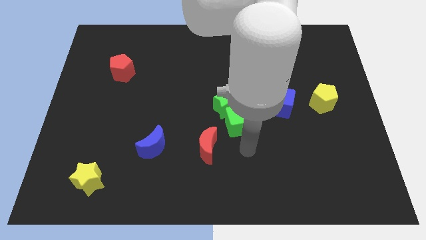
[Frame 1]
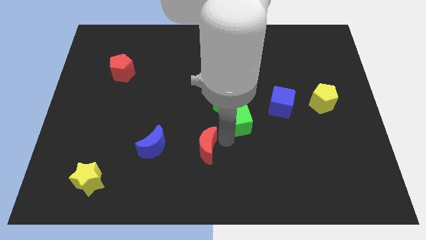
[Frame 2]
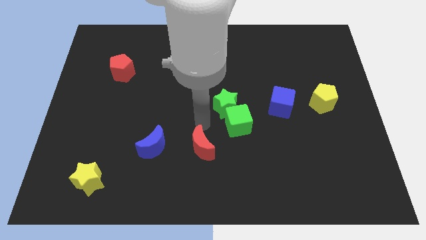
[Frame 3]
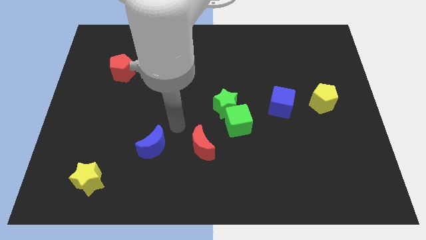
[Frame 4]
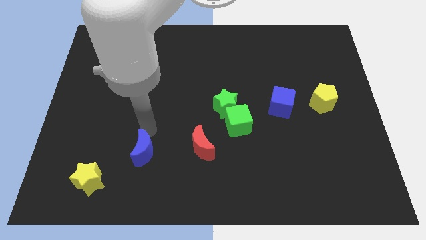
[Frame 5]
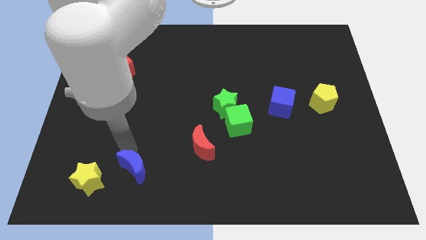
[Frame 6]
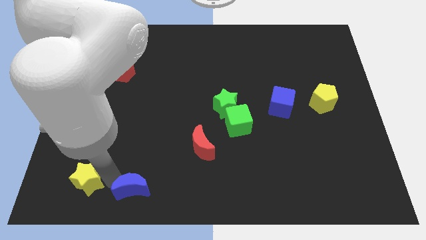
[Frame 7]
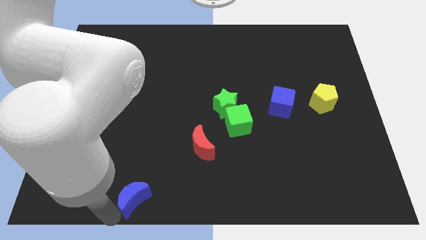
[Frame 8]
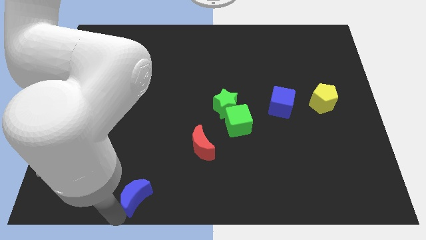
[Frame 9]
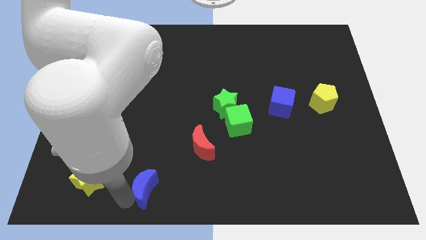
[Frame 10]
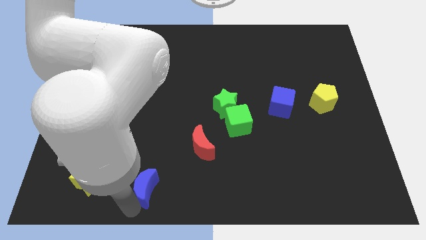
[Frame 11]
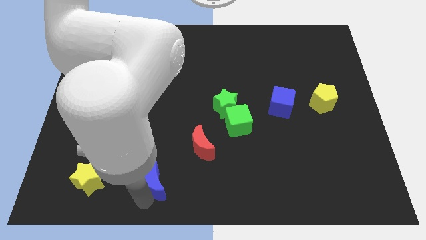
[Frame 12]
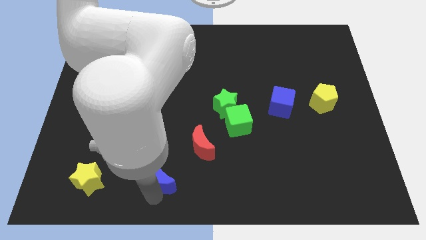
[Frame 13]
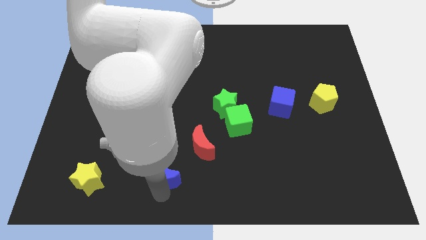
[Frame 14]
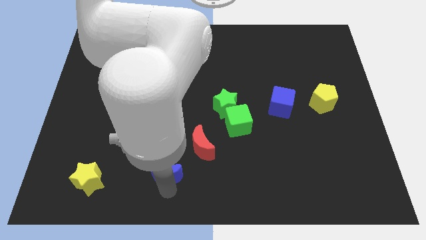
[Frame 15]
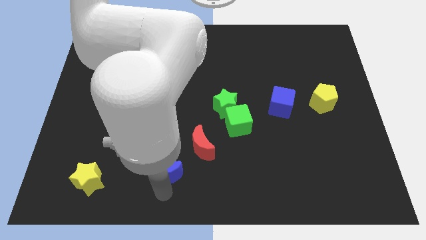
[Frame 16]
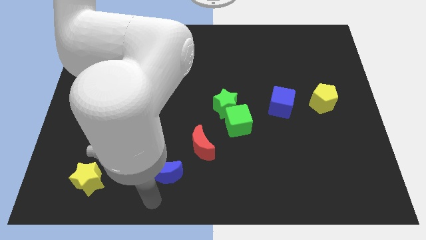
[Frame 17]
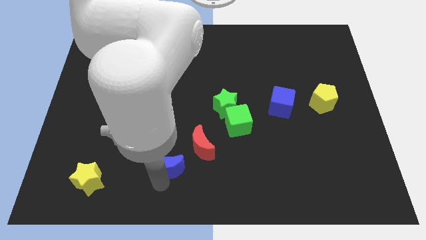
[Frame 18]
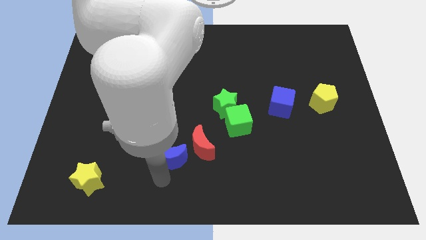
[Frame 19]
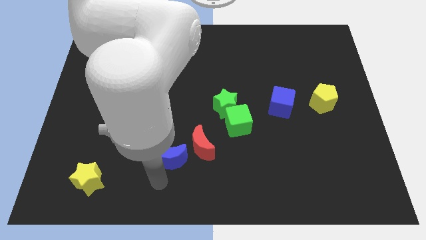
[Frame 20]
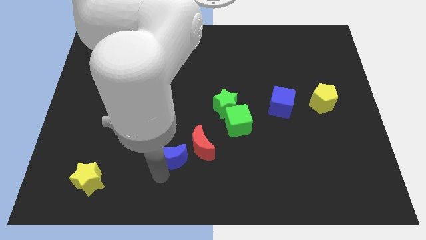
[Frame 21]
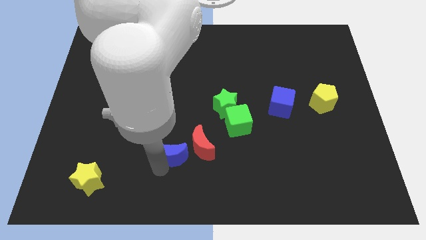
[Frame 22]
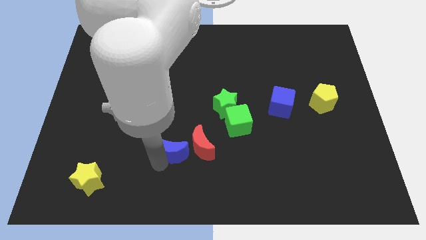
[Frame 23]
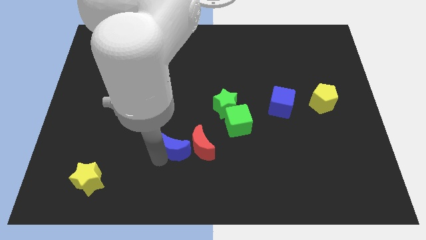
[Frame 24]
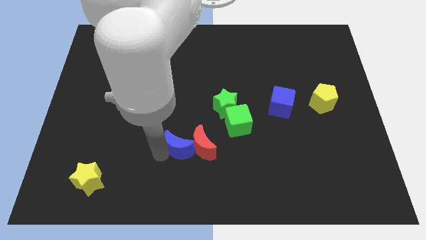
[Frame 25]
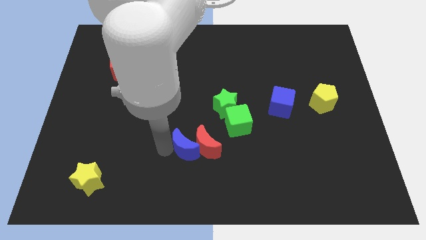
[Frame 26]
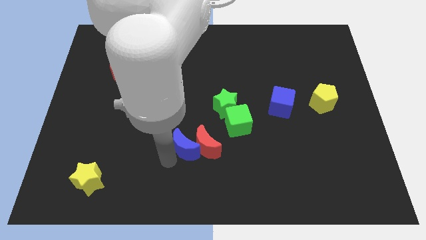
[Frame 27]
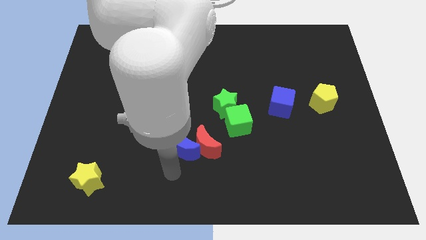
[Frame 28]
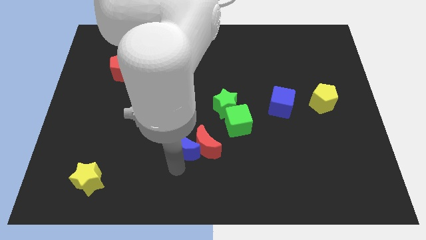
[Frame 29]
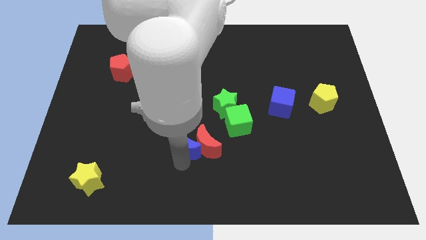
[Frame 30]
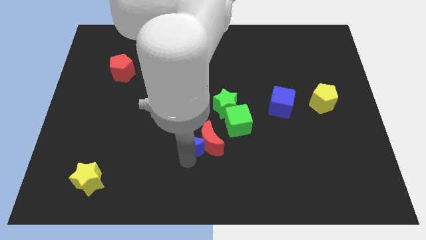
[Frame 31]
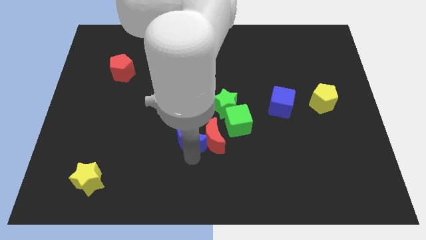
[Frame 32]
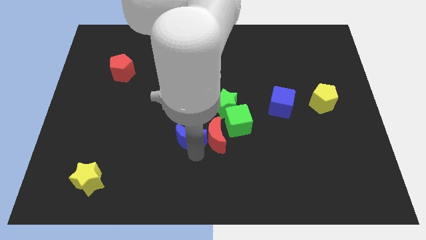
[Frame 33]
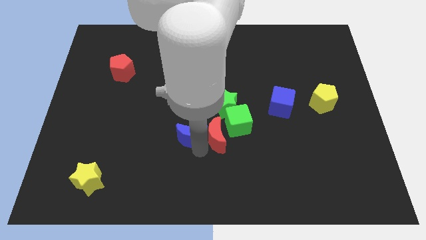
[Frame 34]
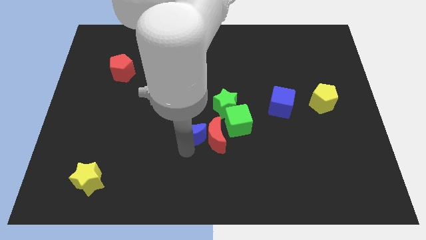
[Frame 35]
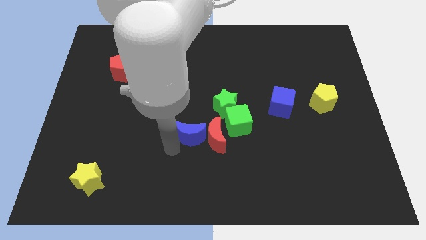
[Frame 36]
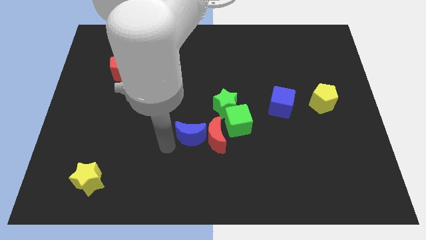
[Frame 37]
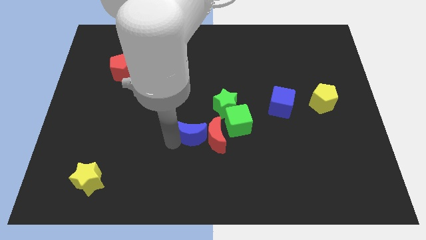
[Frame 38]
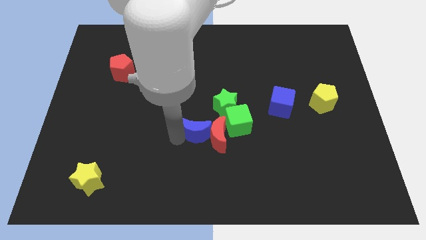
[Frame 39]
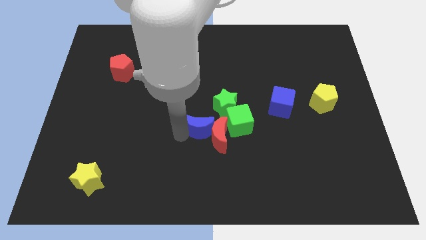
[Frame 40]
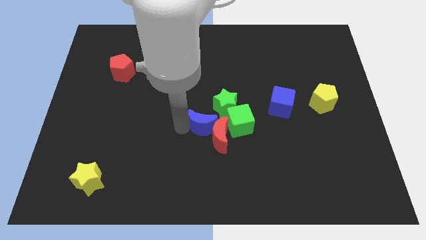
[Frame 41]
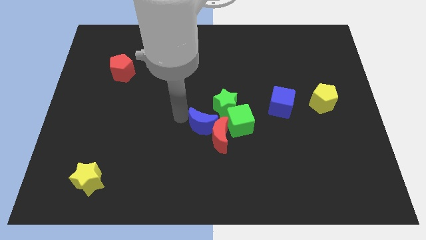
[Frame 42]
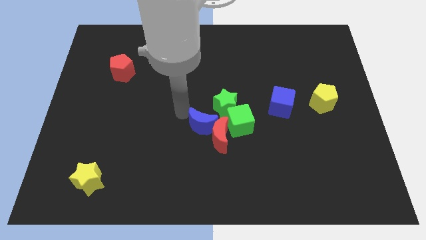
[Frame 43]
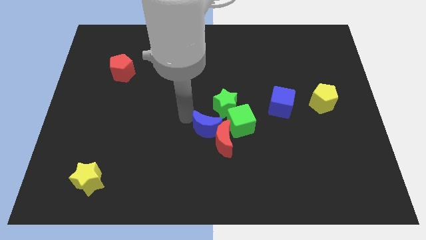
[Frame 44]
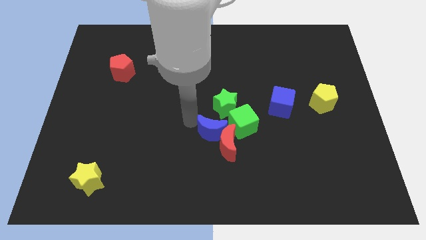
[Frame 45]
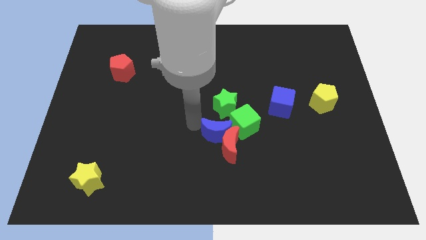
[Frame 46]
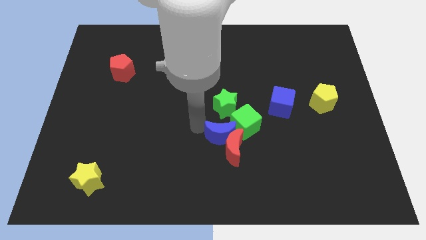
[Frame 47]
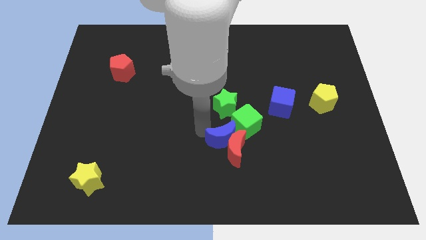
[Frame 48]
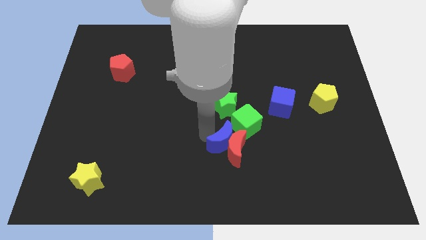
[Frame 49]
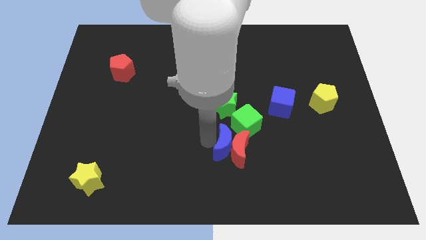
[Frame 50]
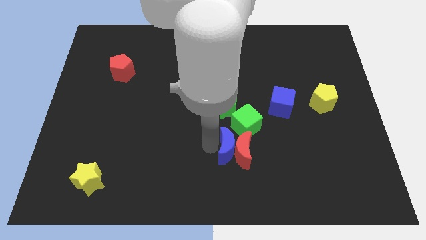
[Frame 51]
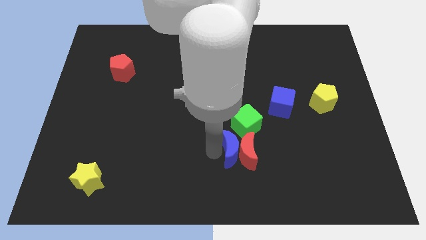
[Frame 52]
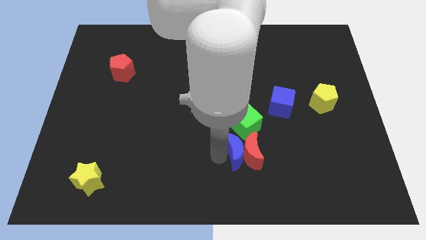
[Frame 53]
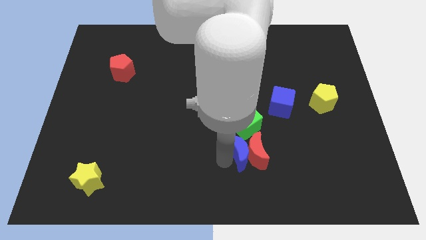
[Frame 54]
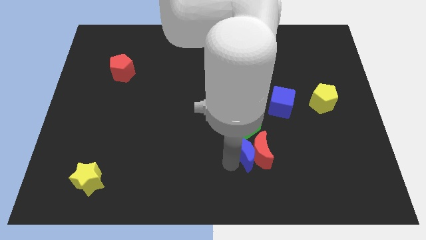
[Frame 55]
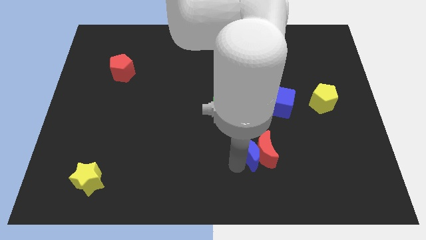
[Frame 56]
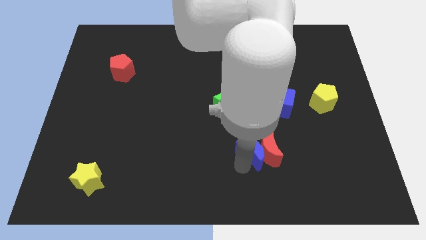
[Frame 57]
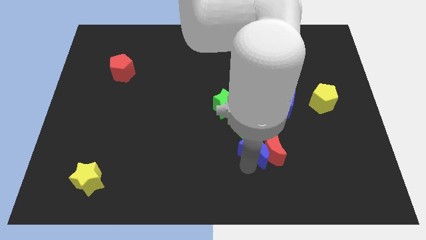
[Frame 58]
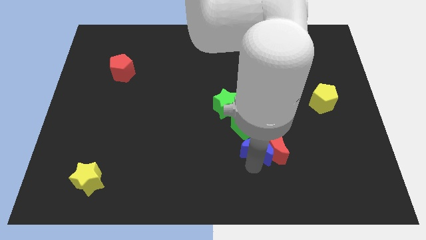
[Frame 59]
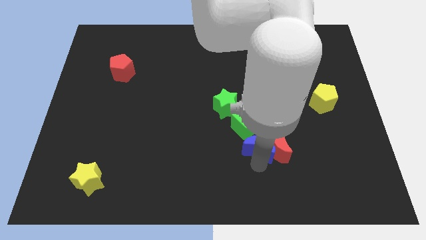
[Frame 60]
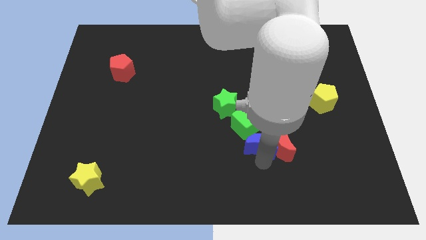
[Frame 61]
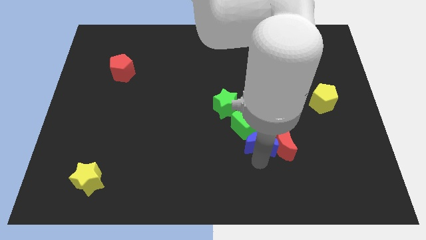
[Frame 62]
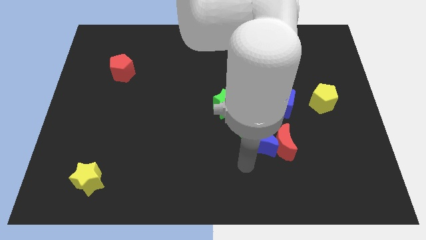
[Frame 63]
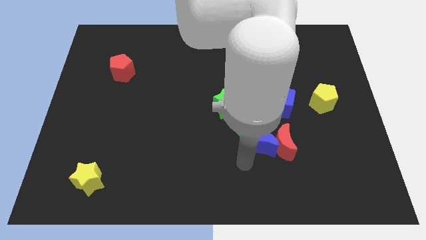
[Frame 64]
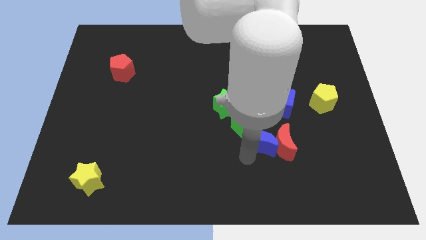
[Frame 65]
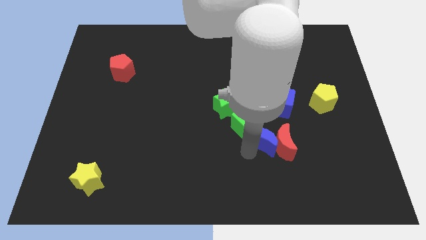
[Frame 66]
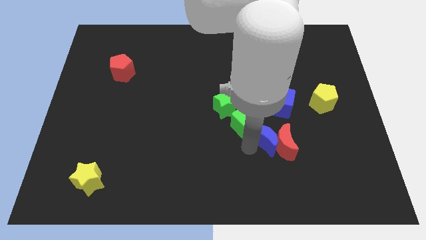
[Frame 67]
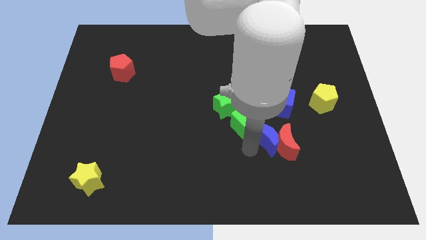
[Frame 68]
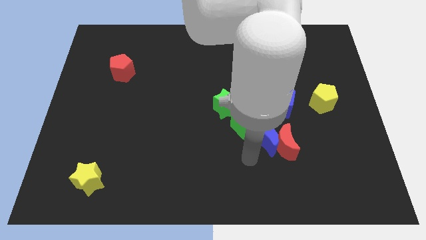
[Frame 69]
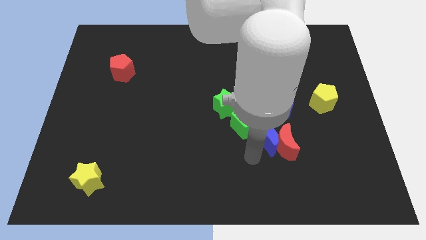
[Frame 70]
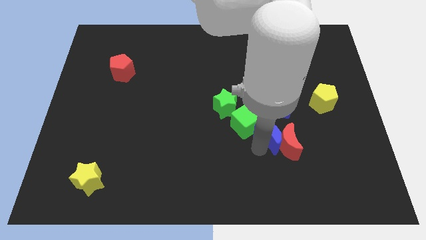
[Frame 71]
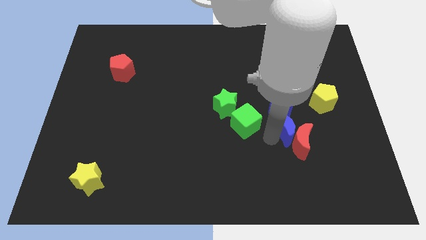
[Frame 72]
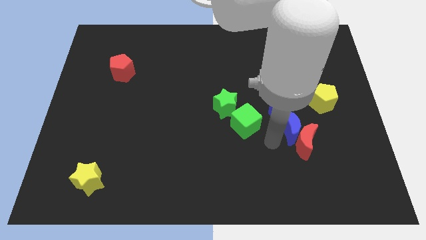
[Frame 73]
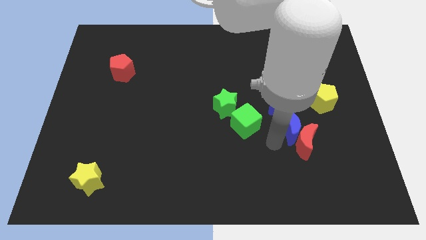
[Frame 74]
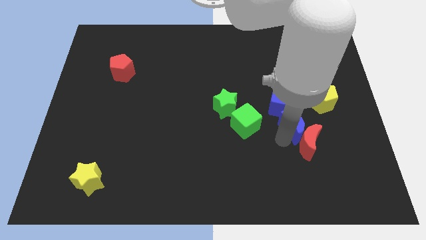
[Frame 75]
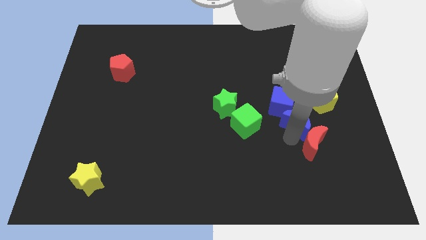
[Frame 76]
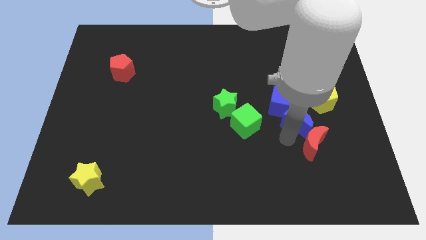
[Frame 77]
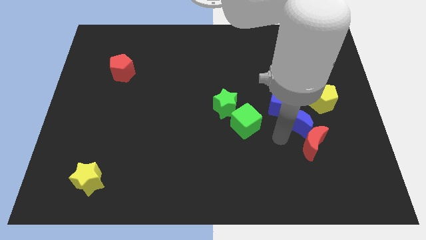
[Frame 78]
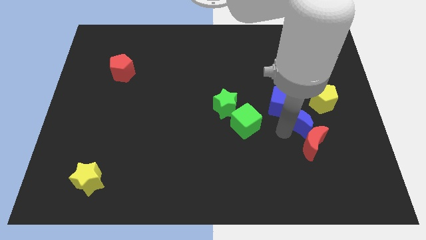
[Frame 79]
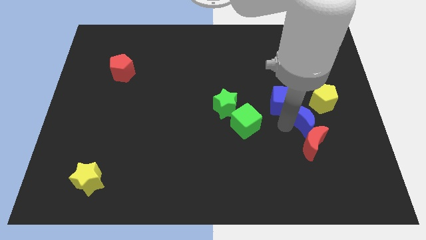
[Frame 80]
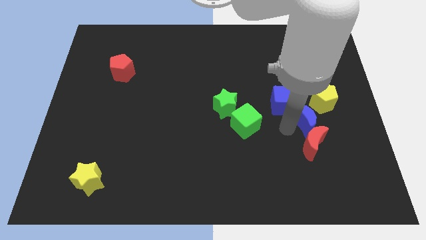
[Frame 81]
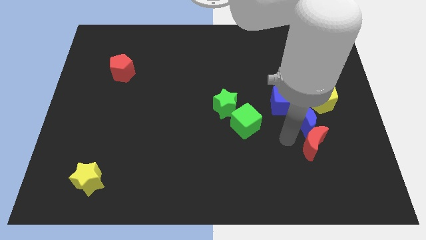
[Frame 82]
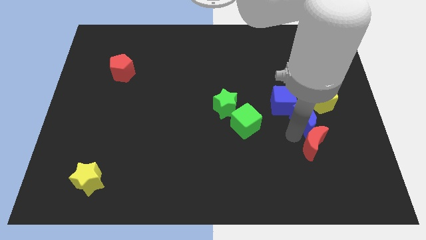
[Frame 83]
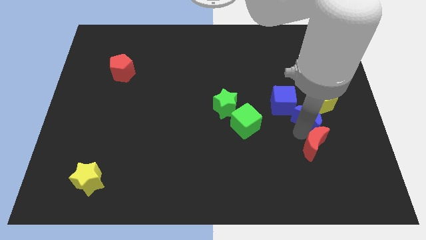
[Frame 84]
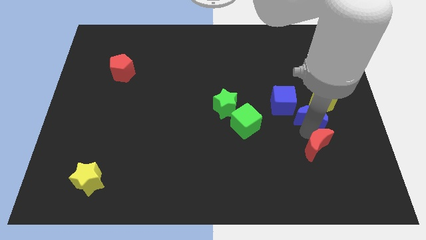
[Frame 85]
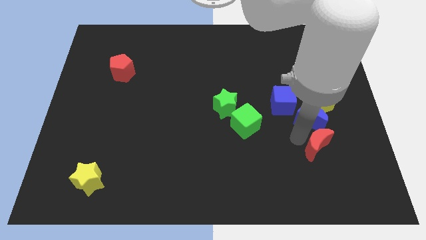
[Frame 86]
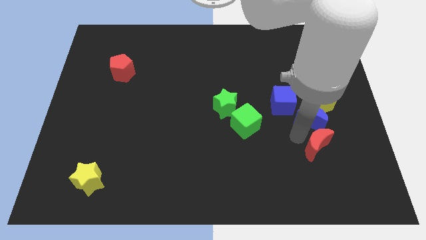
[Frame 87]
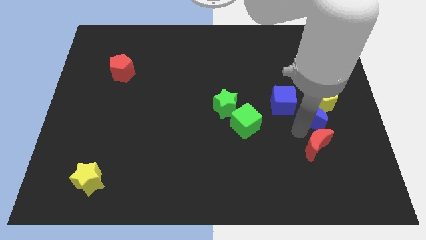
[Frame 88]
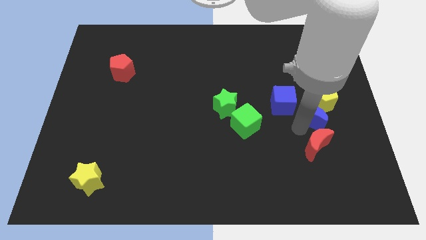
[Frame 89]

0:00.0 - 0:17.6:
push the blue moon to the yellow pentagon
